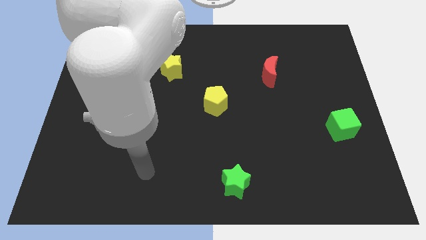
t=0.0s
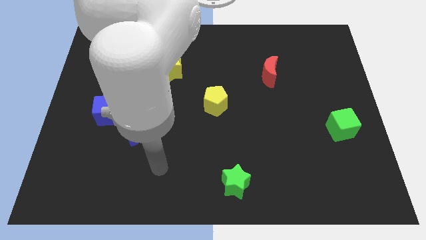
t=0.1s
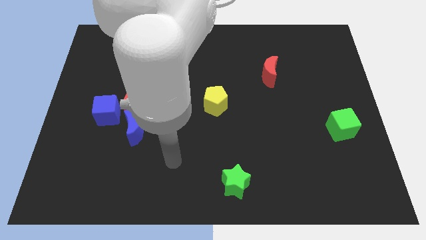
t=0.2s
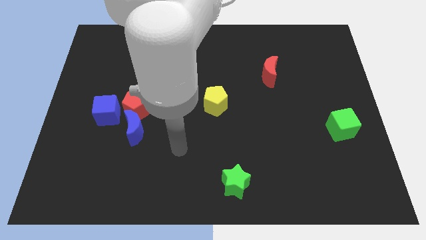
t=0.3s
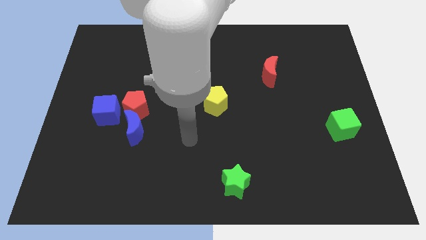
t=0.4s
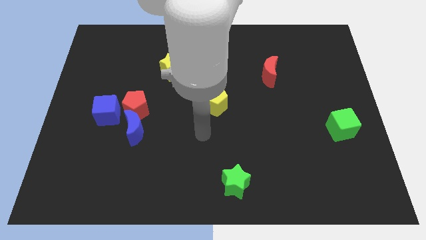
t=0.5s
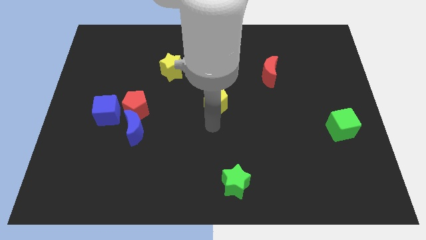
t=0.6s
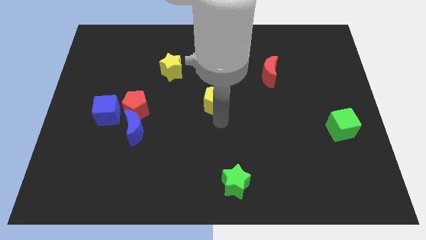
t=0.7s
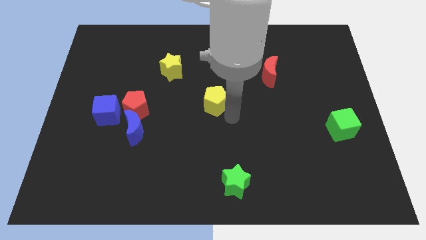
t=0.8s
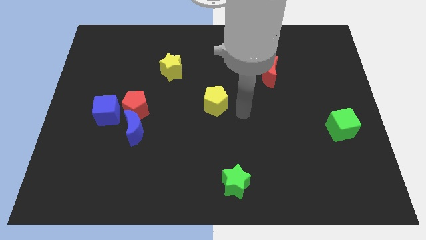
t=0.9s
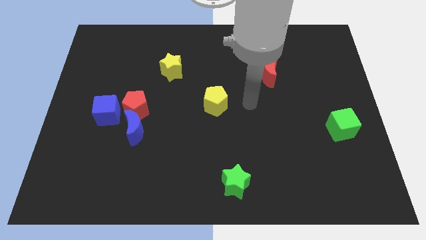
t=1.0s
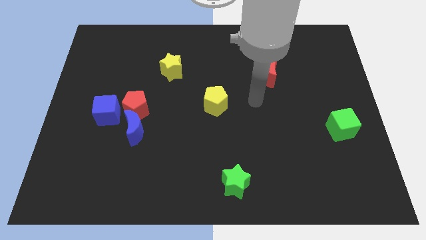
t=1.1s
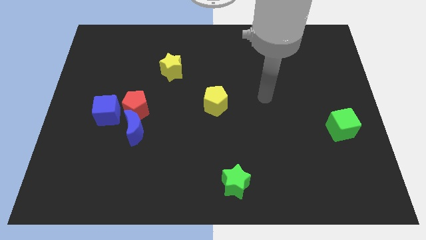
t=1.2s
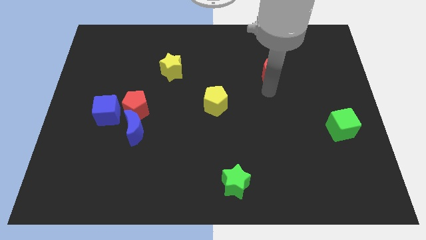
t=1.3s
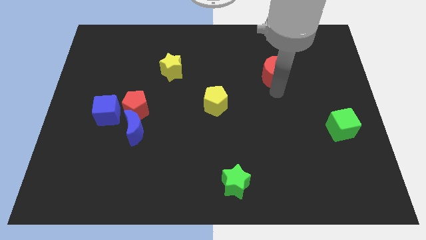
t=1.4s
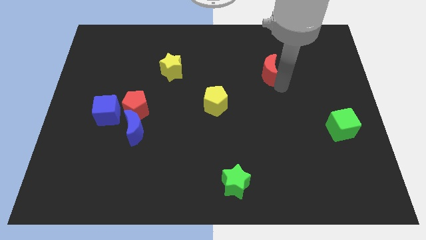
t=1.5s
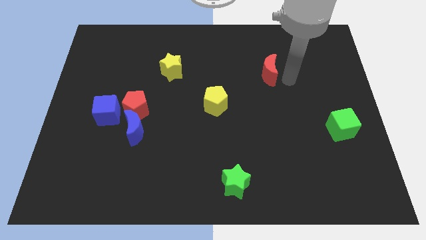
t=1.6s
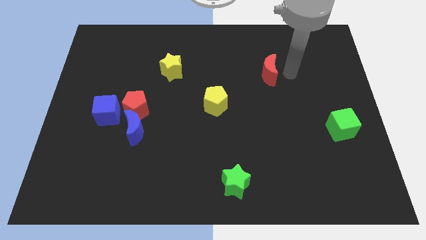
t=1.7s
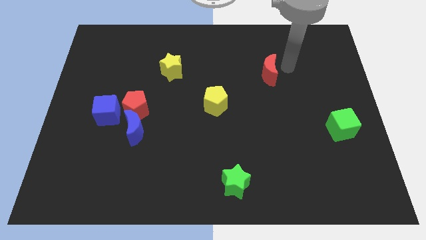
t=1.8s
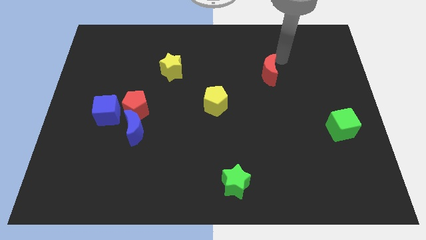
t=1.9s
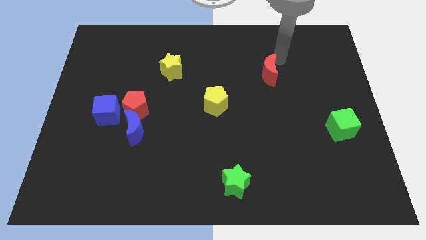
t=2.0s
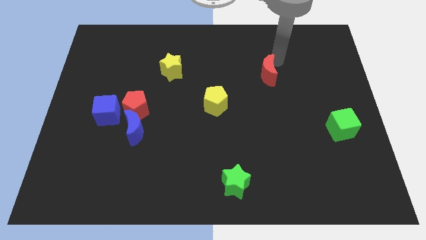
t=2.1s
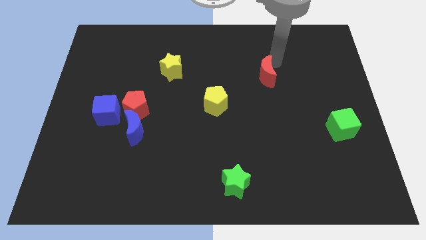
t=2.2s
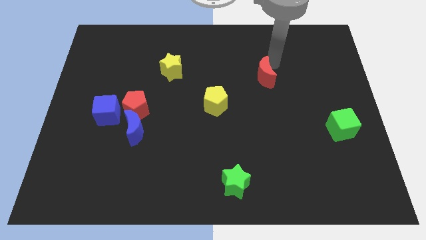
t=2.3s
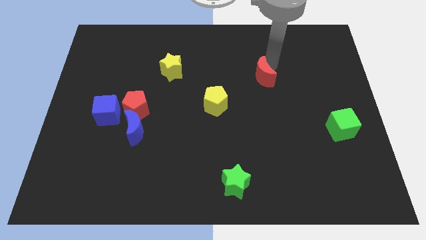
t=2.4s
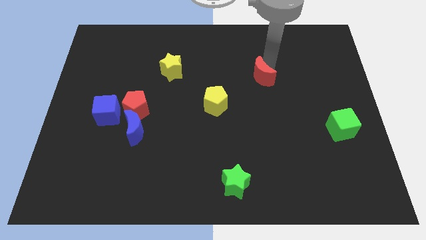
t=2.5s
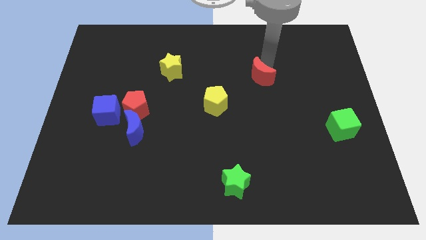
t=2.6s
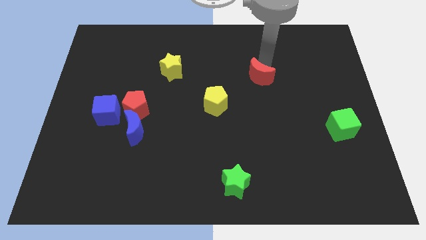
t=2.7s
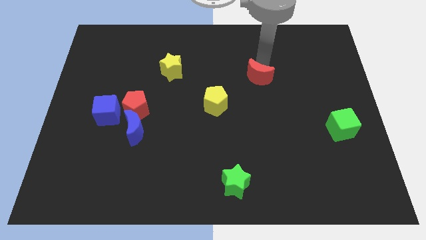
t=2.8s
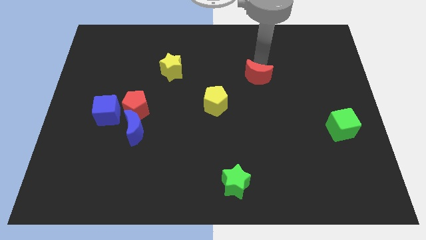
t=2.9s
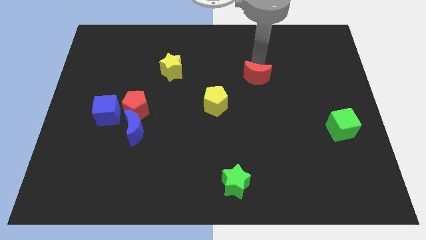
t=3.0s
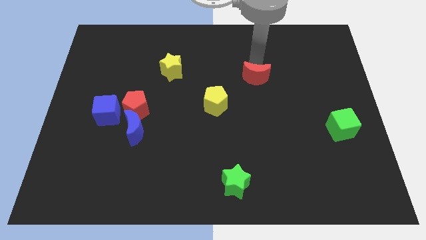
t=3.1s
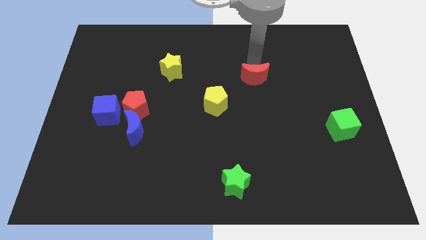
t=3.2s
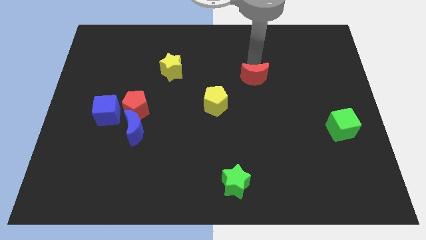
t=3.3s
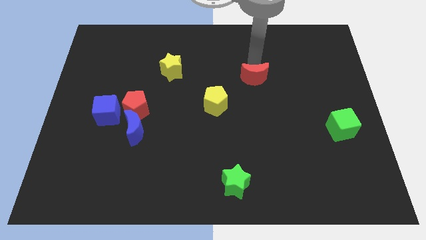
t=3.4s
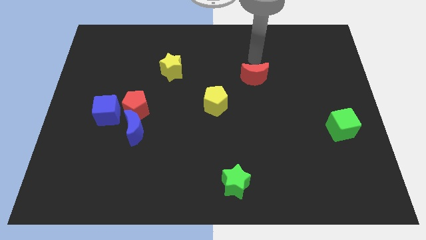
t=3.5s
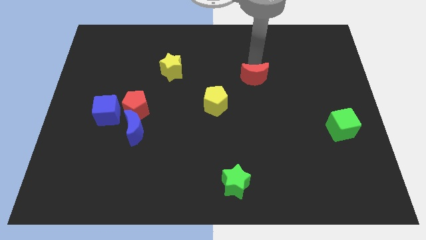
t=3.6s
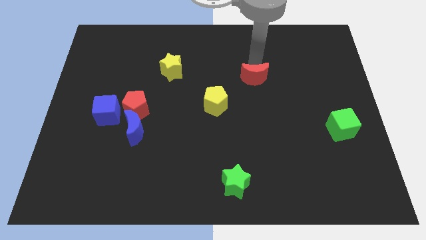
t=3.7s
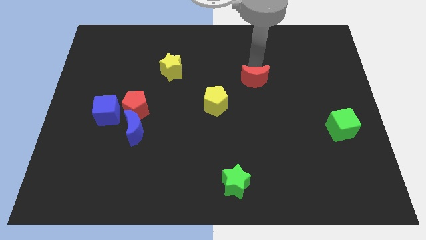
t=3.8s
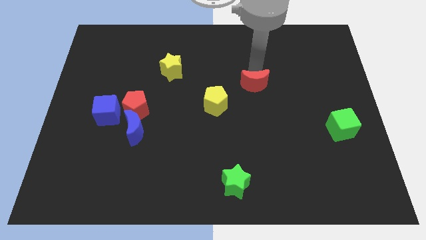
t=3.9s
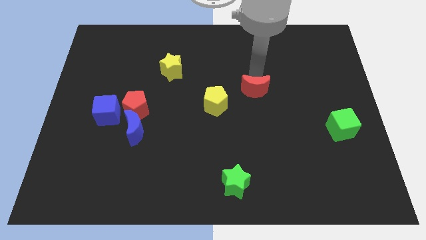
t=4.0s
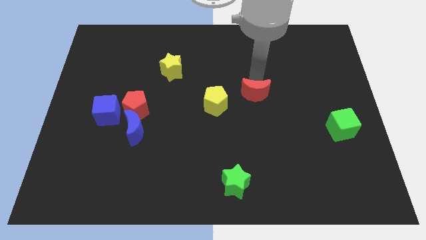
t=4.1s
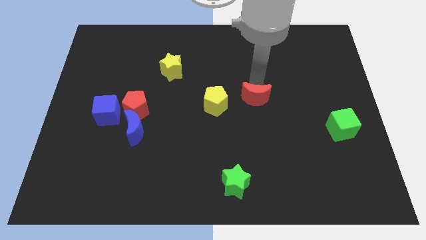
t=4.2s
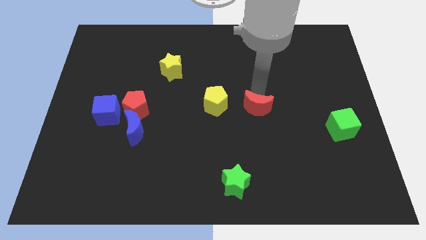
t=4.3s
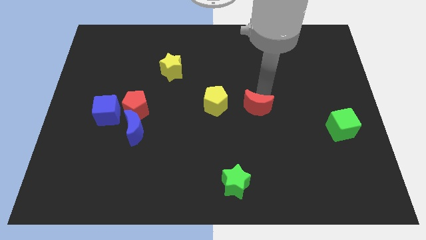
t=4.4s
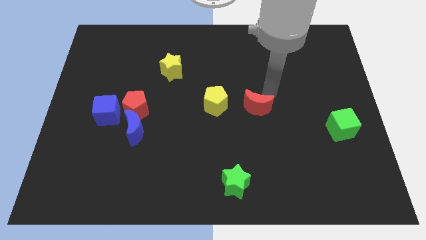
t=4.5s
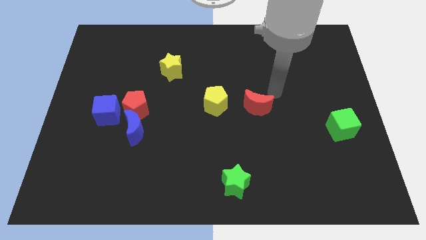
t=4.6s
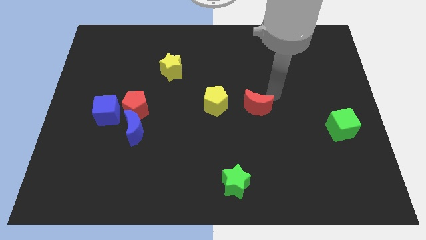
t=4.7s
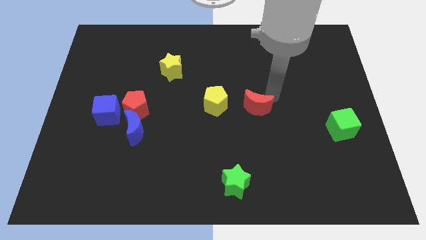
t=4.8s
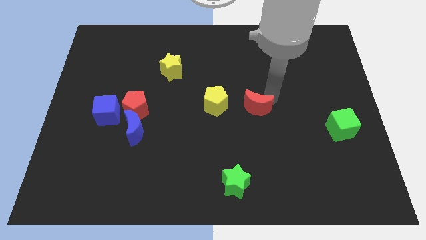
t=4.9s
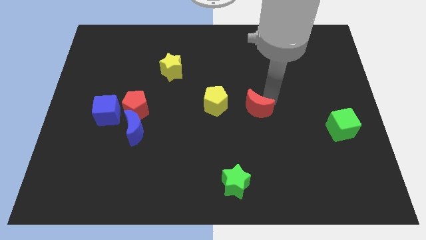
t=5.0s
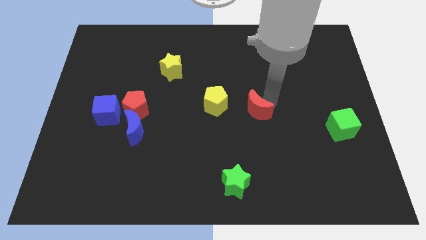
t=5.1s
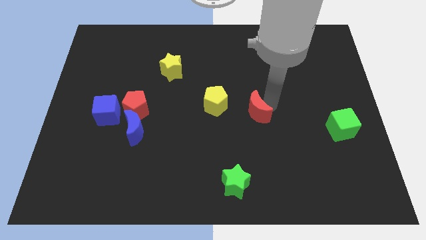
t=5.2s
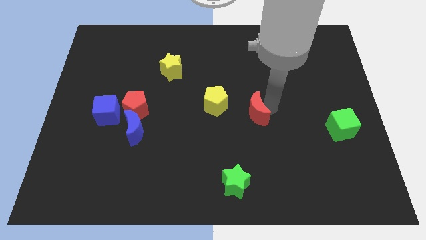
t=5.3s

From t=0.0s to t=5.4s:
slide the red moon diagonally down and to the right of the yellow pentagon
